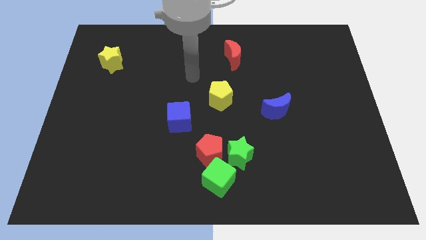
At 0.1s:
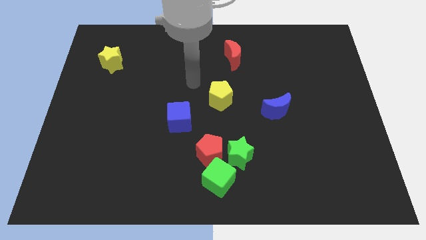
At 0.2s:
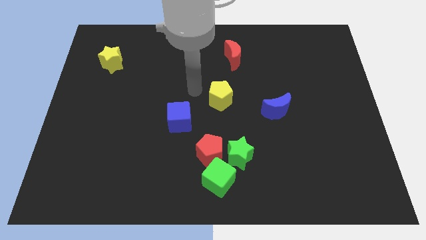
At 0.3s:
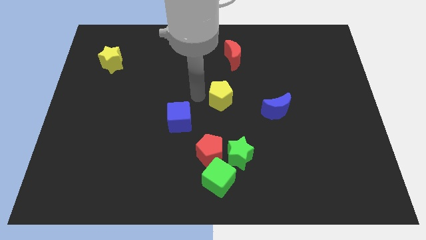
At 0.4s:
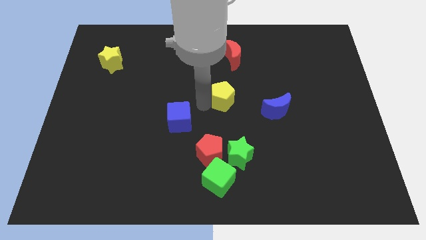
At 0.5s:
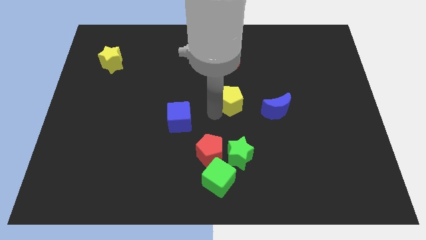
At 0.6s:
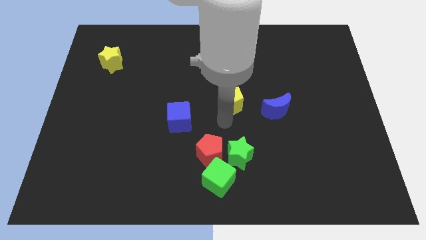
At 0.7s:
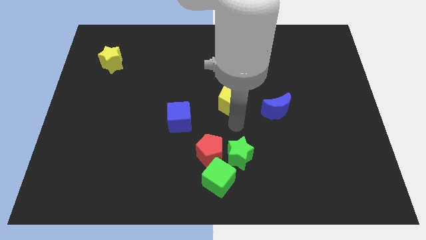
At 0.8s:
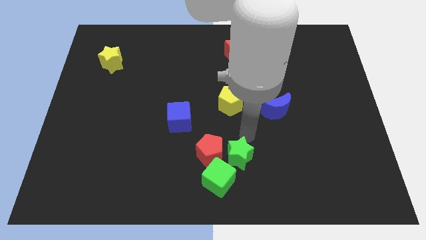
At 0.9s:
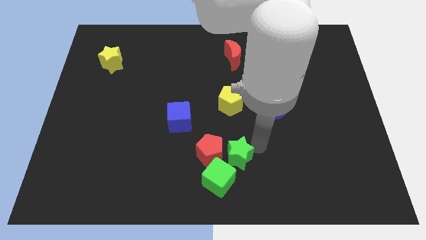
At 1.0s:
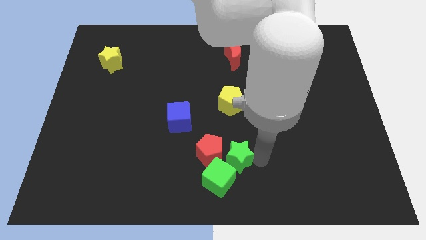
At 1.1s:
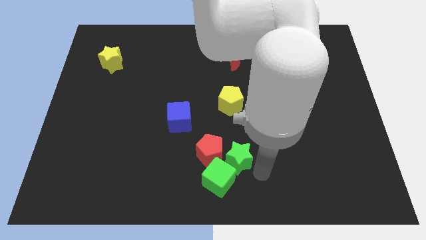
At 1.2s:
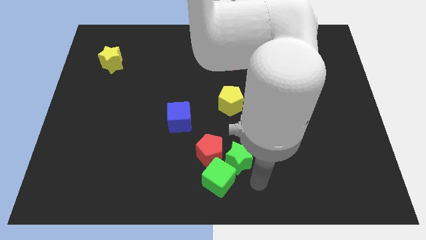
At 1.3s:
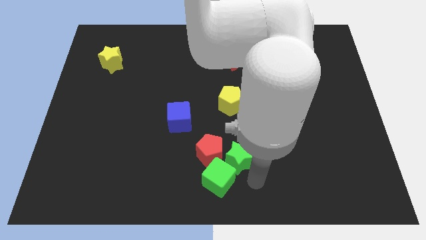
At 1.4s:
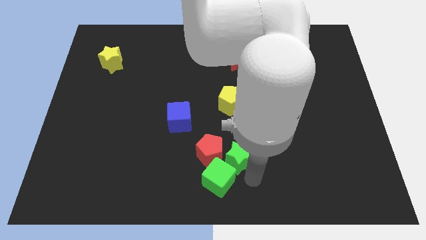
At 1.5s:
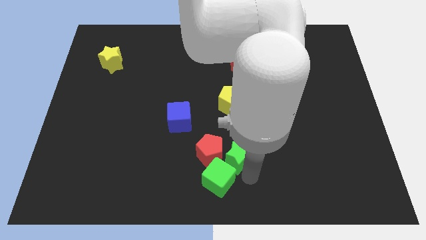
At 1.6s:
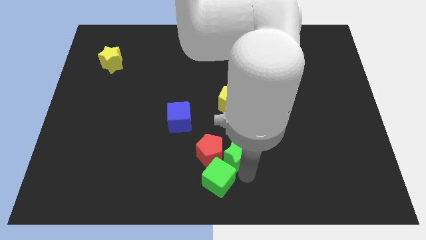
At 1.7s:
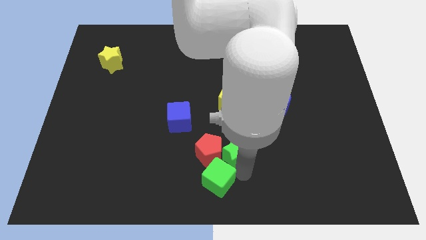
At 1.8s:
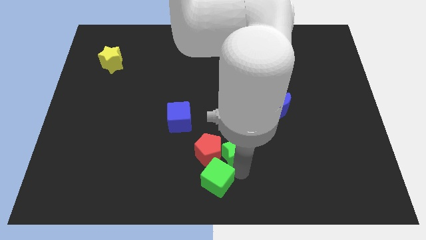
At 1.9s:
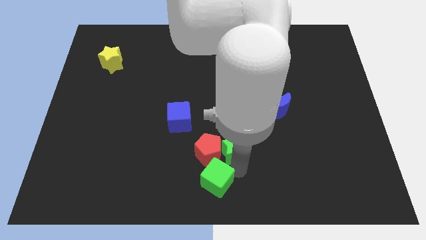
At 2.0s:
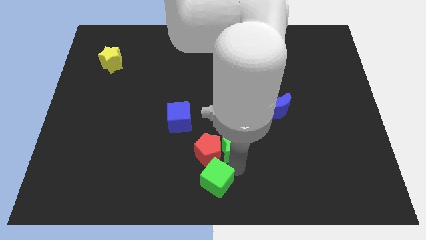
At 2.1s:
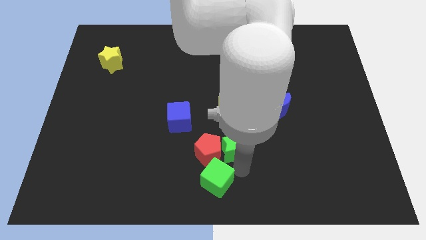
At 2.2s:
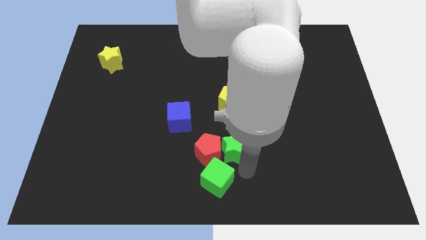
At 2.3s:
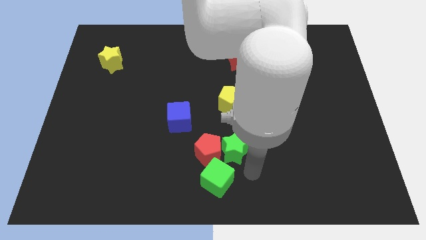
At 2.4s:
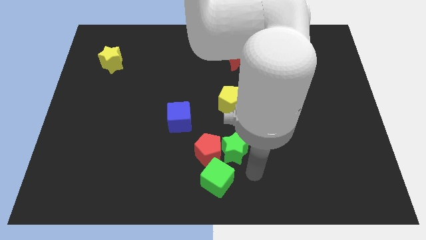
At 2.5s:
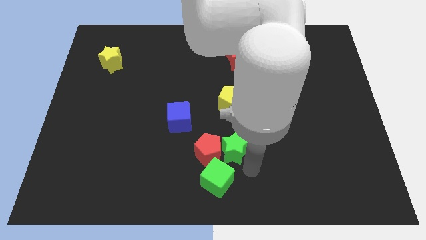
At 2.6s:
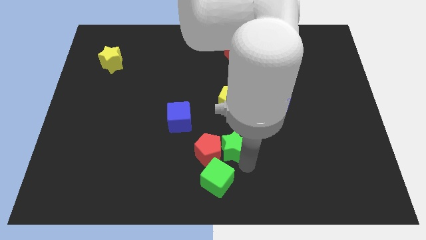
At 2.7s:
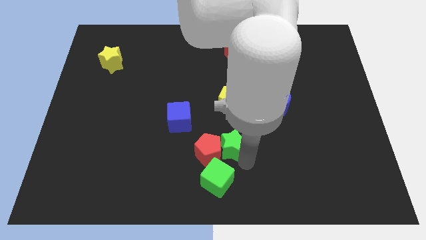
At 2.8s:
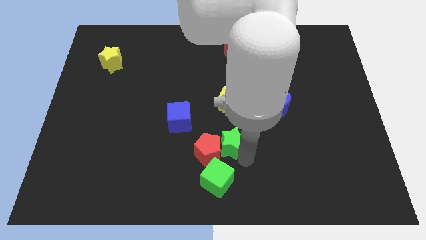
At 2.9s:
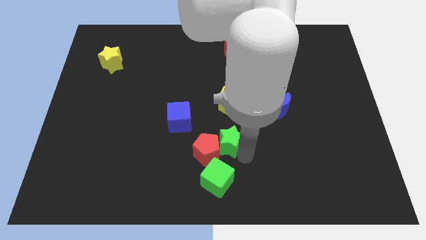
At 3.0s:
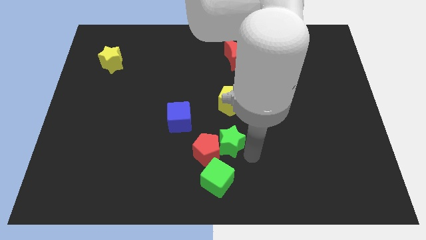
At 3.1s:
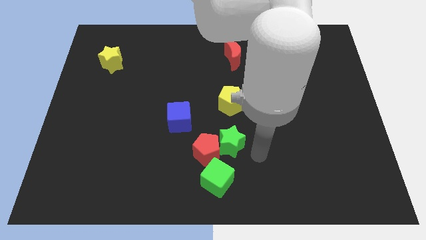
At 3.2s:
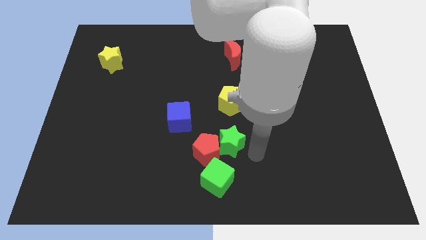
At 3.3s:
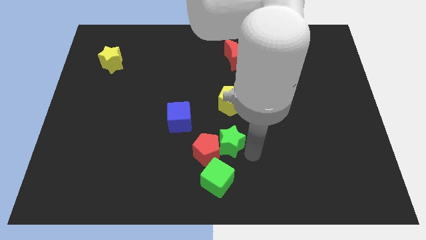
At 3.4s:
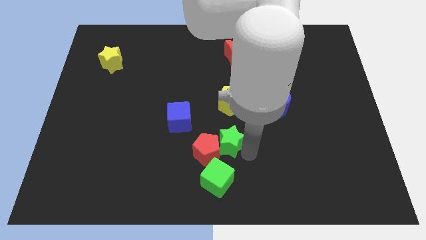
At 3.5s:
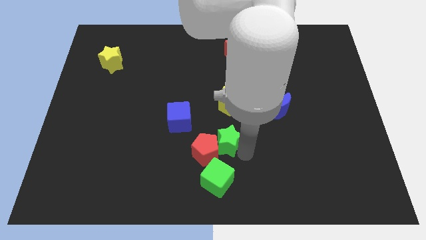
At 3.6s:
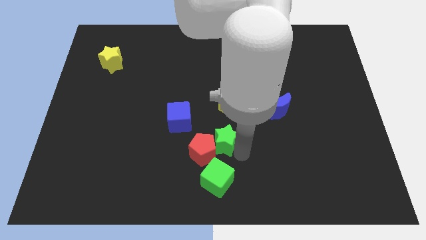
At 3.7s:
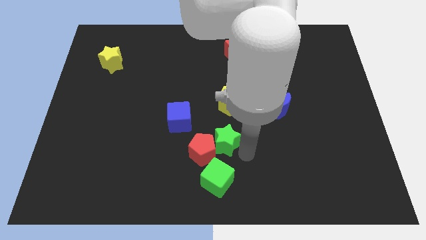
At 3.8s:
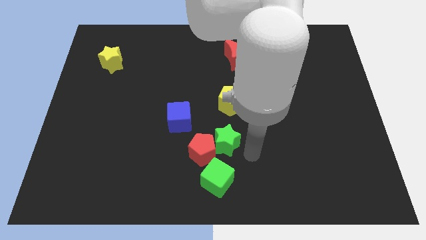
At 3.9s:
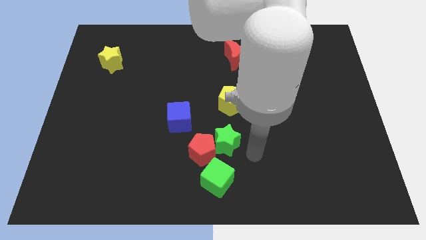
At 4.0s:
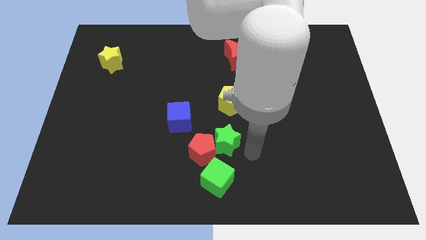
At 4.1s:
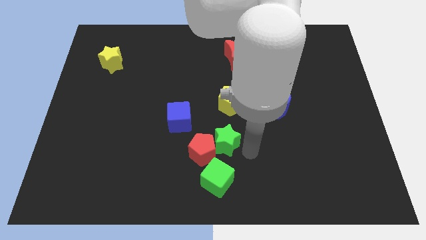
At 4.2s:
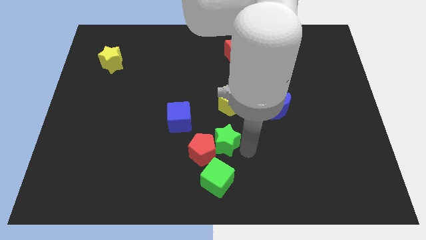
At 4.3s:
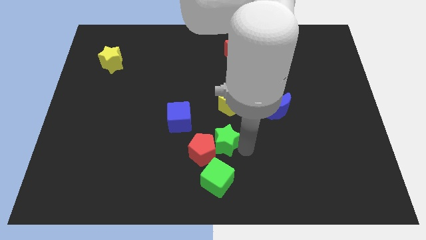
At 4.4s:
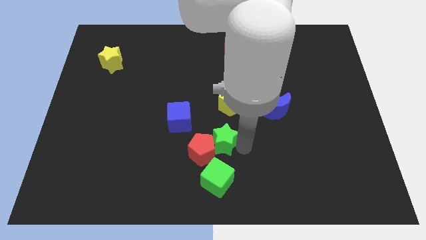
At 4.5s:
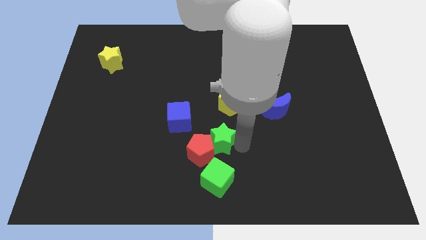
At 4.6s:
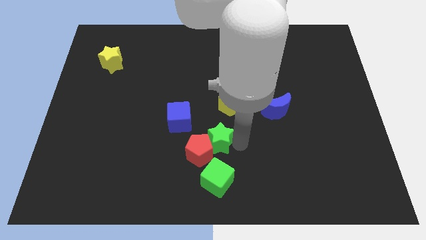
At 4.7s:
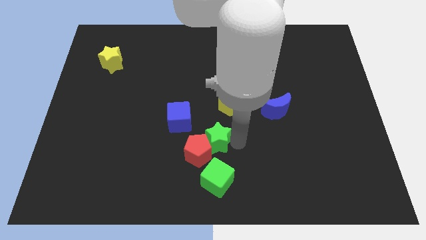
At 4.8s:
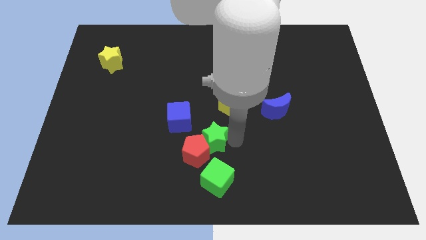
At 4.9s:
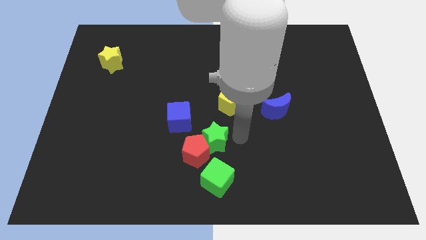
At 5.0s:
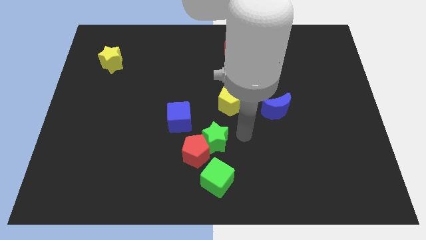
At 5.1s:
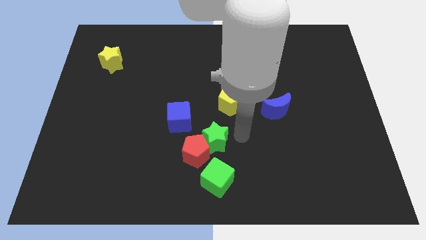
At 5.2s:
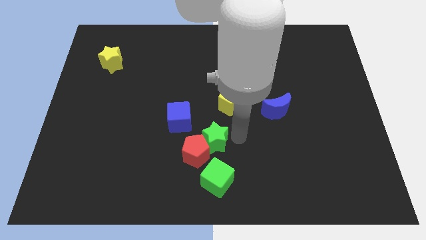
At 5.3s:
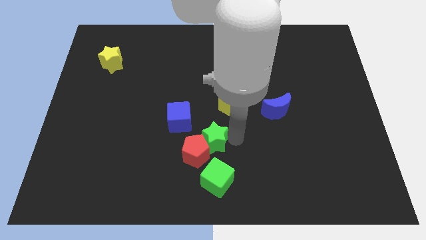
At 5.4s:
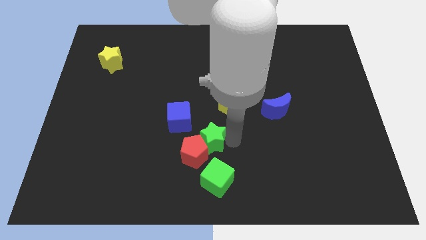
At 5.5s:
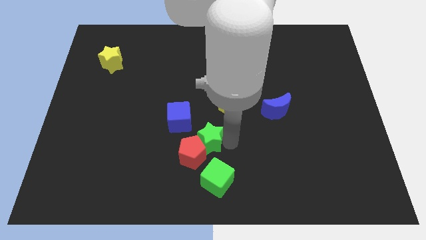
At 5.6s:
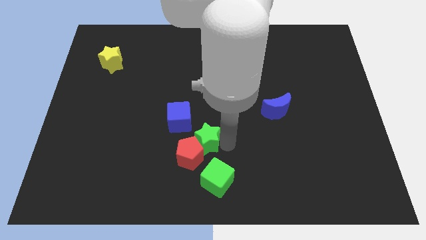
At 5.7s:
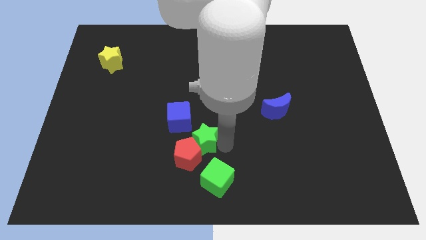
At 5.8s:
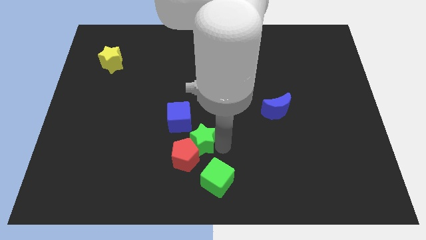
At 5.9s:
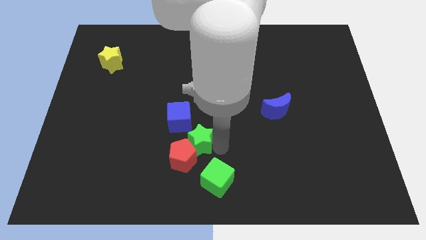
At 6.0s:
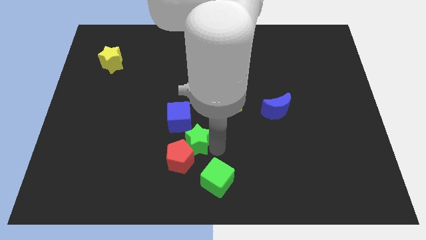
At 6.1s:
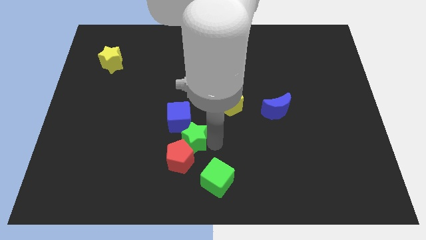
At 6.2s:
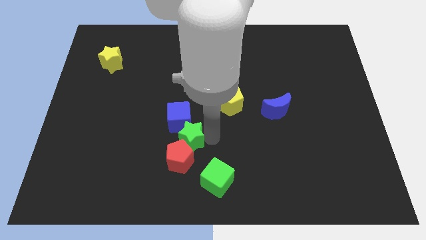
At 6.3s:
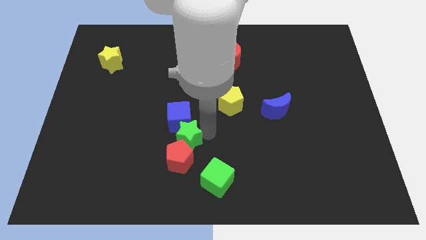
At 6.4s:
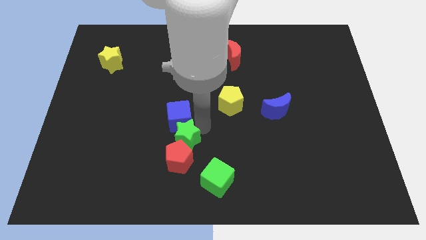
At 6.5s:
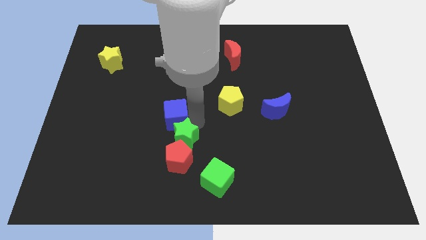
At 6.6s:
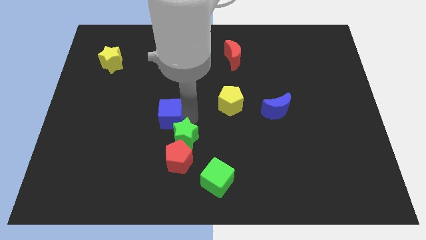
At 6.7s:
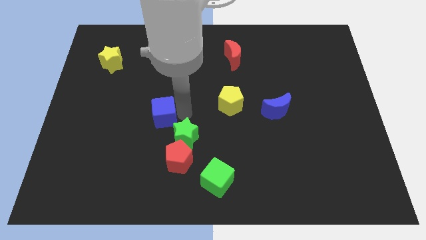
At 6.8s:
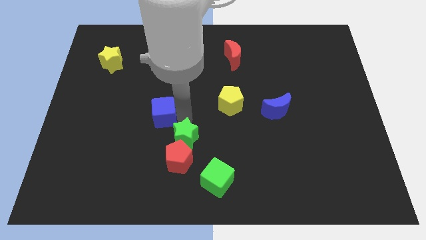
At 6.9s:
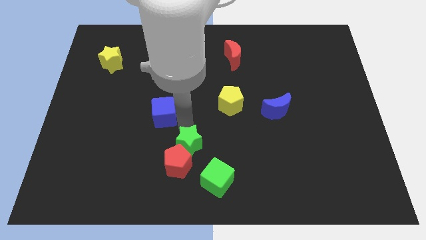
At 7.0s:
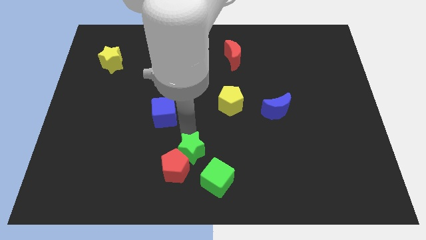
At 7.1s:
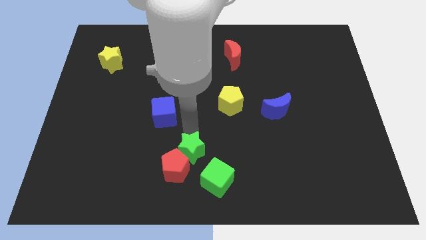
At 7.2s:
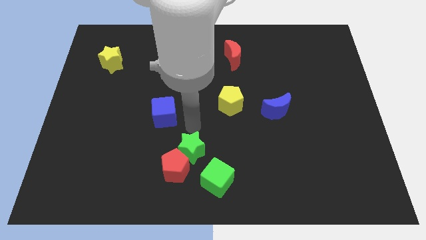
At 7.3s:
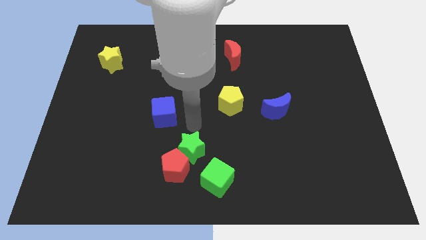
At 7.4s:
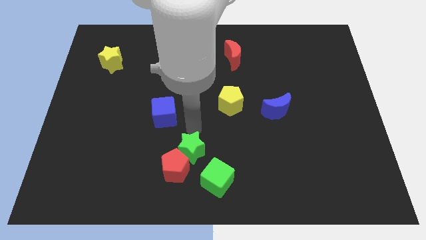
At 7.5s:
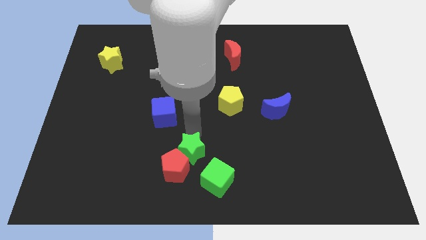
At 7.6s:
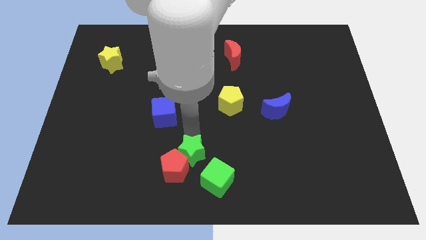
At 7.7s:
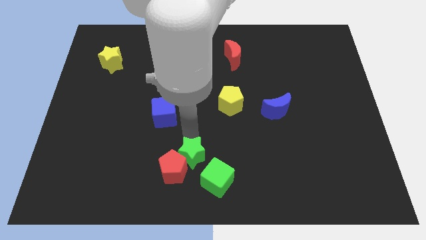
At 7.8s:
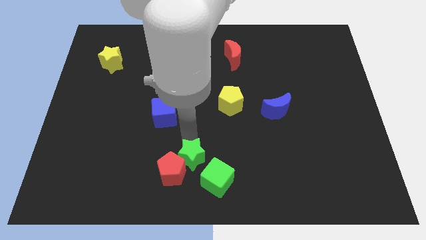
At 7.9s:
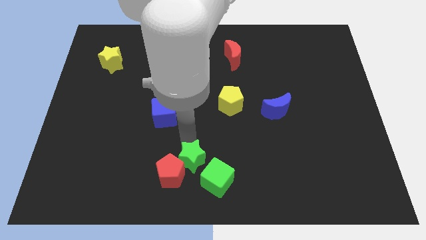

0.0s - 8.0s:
move the green star just left of the green cube

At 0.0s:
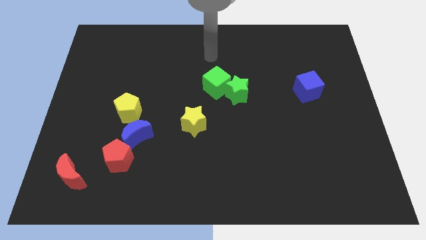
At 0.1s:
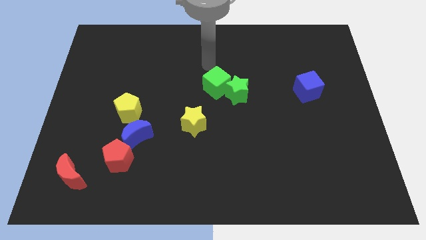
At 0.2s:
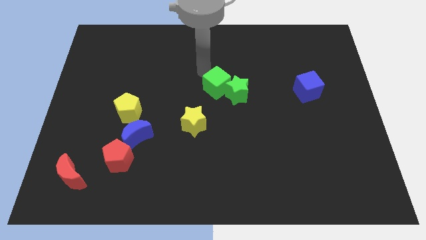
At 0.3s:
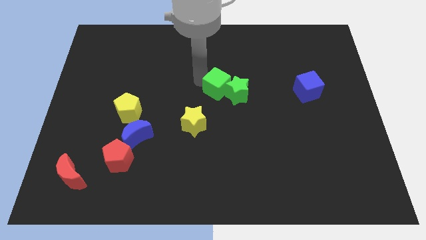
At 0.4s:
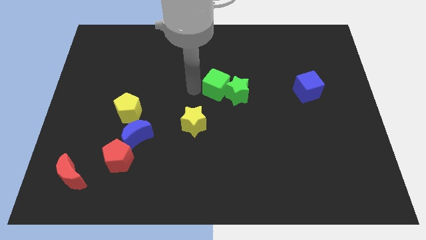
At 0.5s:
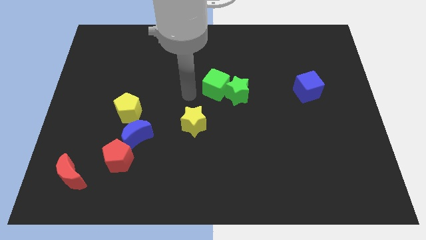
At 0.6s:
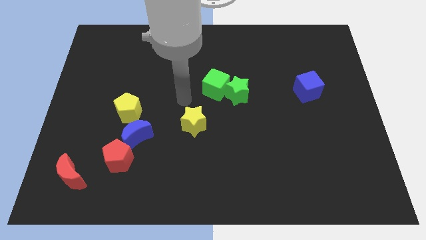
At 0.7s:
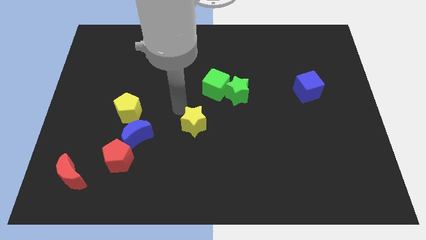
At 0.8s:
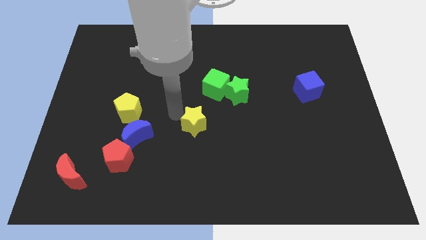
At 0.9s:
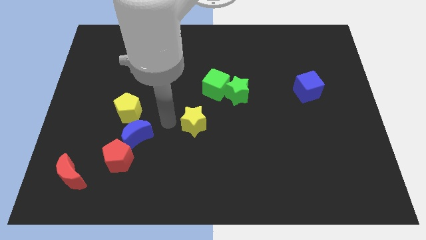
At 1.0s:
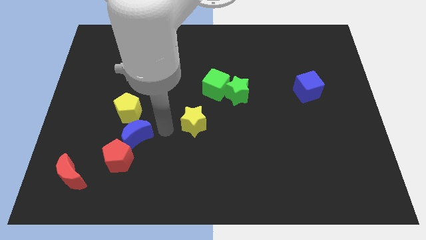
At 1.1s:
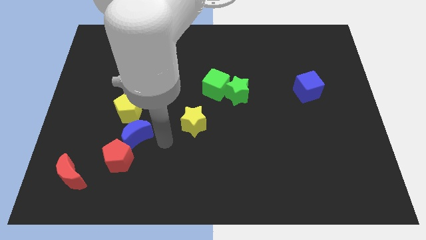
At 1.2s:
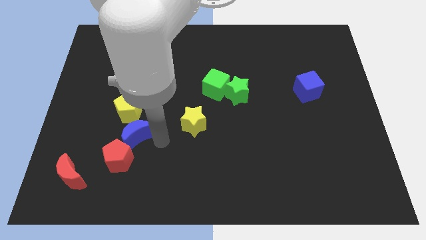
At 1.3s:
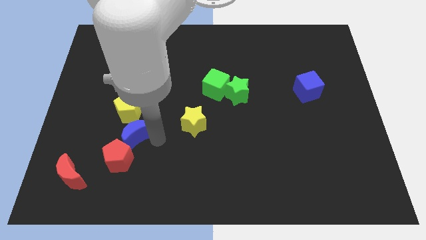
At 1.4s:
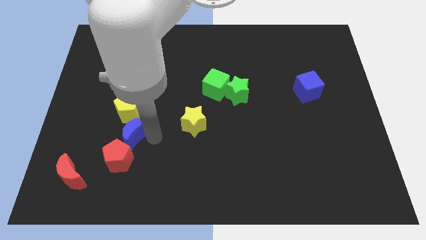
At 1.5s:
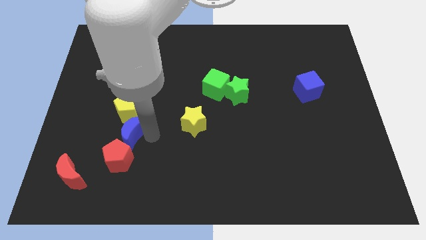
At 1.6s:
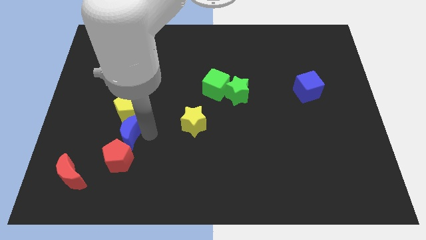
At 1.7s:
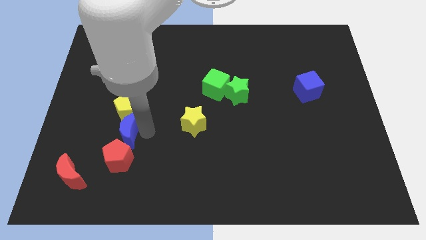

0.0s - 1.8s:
put the blue moon to the bottom left of the yellow pentagon
